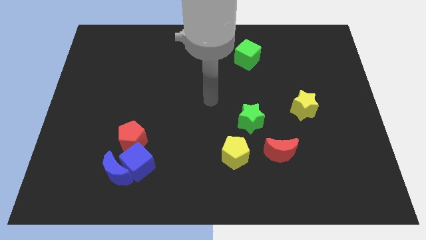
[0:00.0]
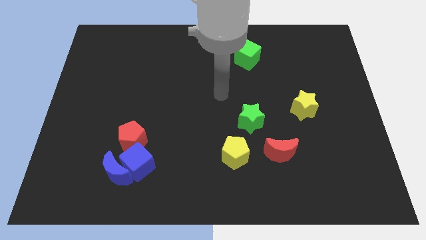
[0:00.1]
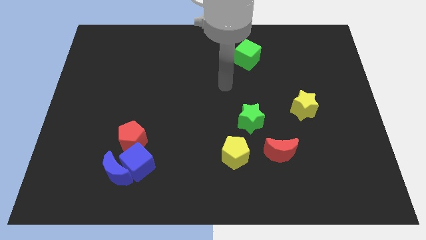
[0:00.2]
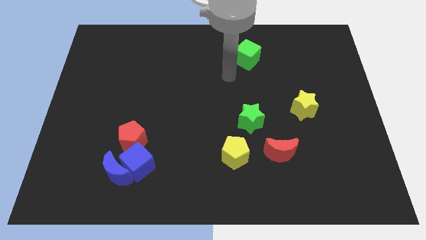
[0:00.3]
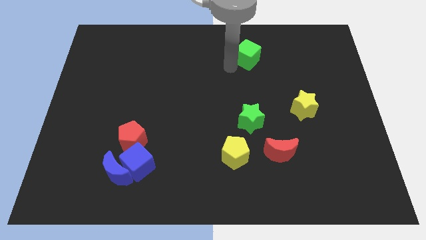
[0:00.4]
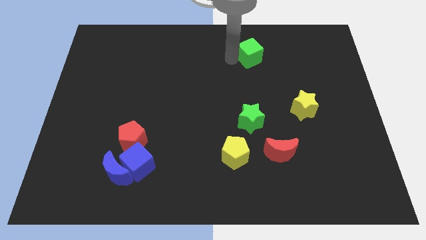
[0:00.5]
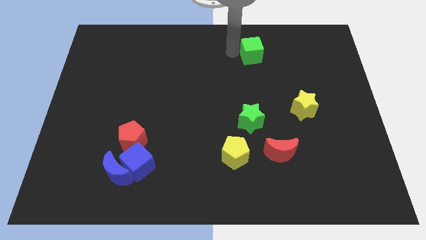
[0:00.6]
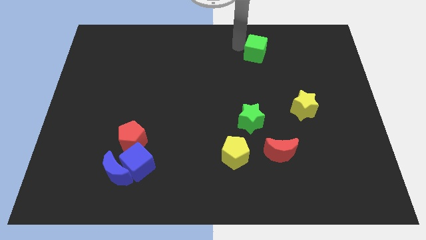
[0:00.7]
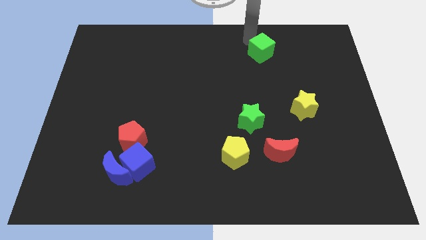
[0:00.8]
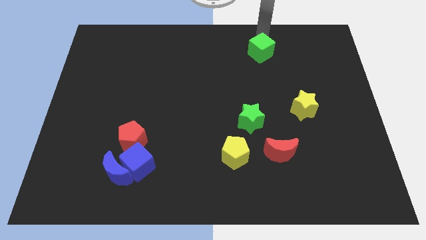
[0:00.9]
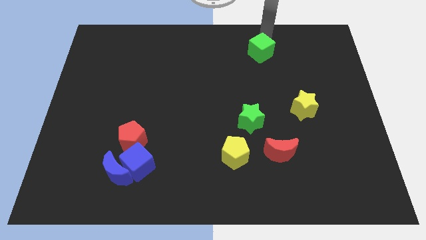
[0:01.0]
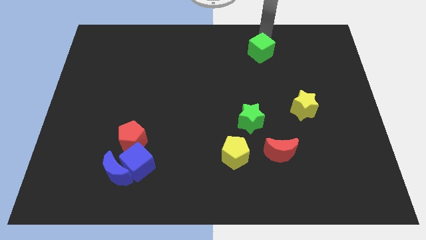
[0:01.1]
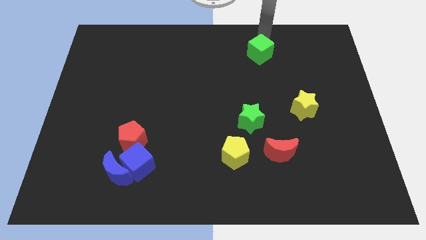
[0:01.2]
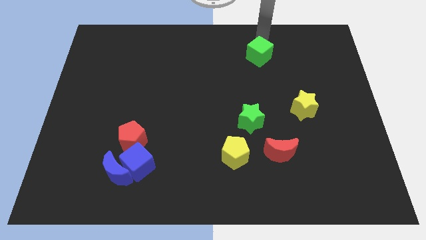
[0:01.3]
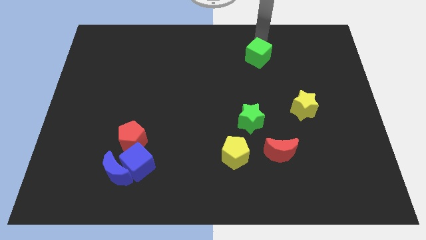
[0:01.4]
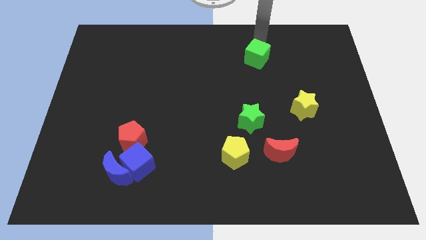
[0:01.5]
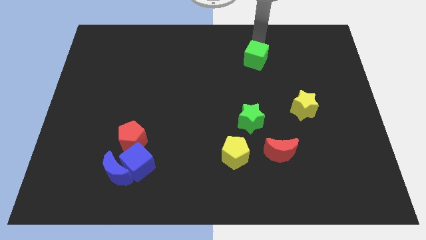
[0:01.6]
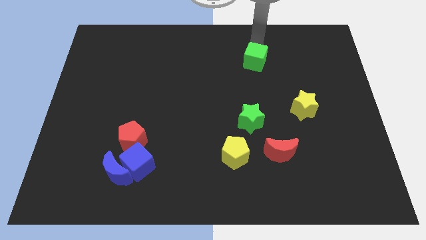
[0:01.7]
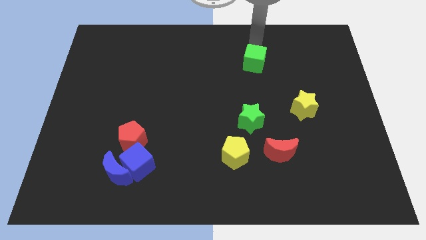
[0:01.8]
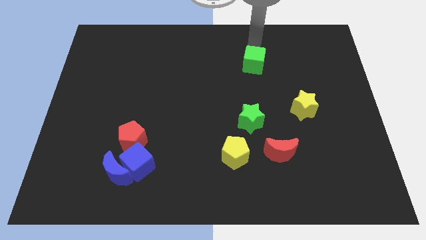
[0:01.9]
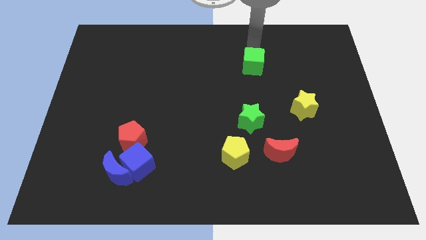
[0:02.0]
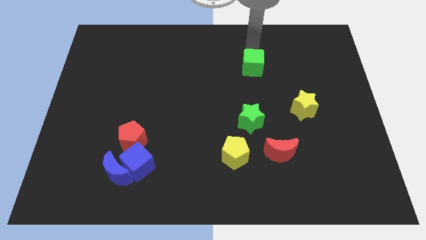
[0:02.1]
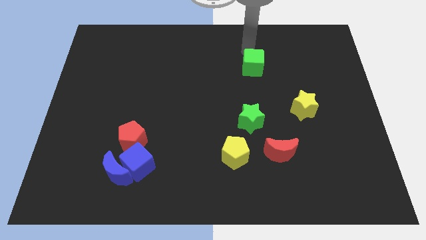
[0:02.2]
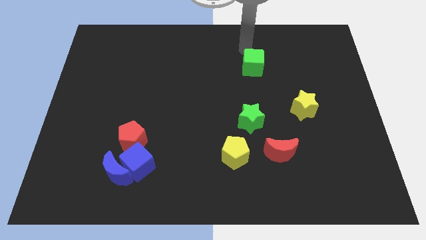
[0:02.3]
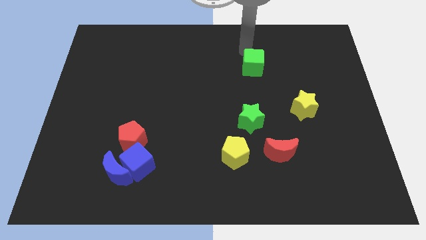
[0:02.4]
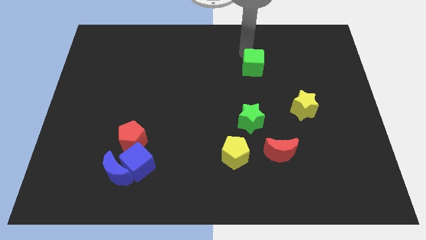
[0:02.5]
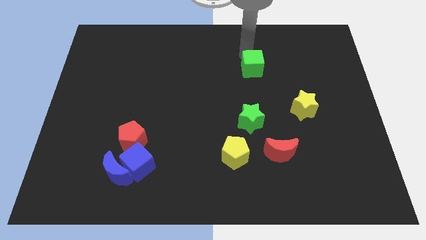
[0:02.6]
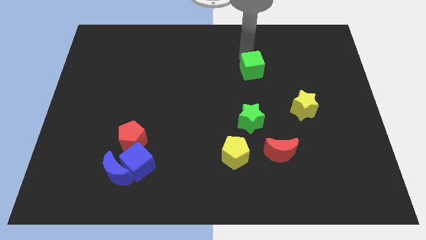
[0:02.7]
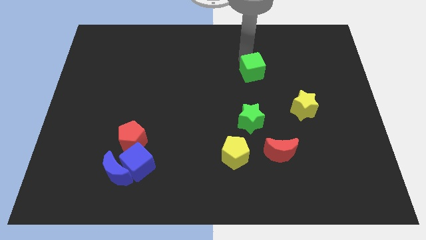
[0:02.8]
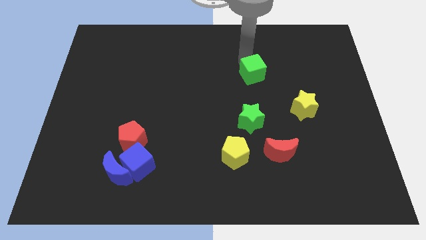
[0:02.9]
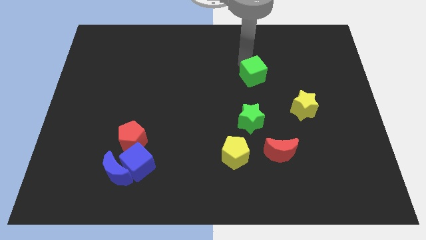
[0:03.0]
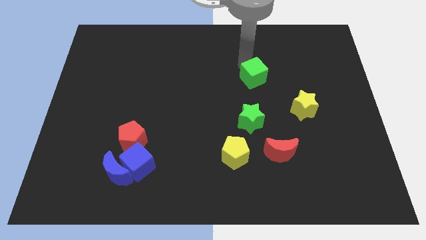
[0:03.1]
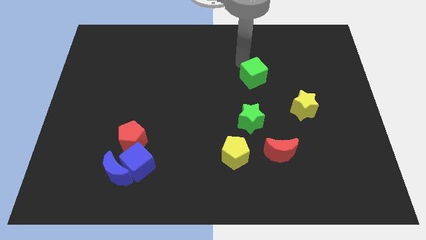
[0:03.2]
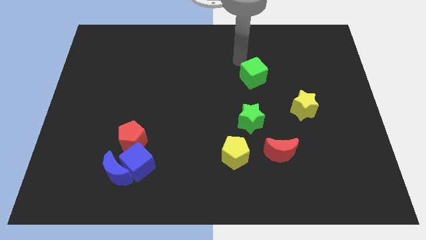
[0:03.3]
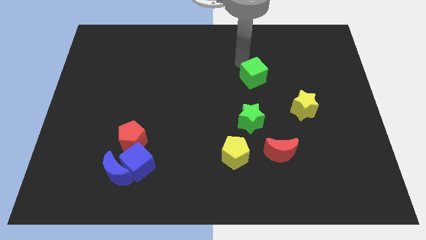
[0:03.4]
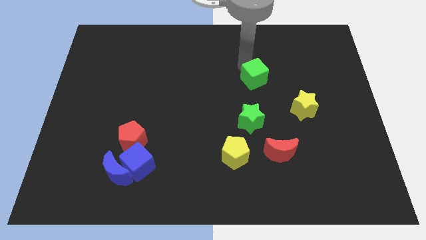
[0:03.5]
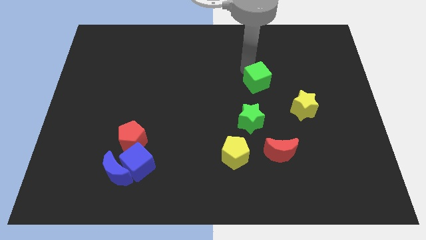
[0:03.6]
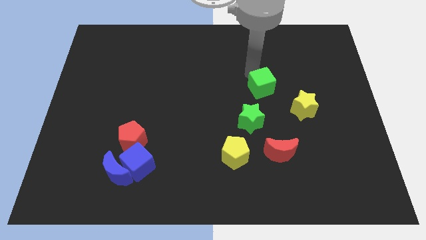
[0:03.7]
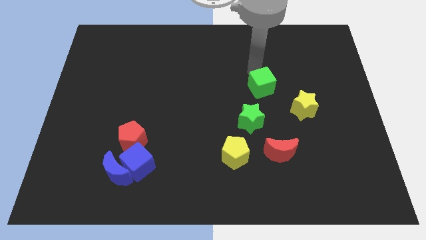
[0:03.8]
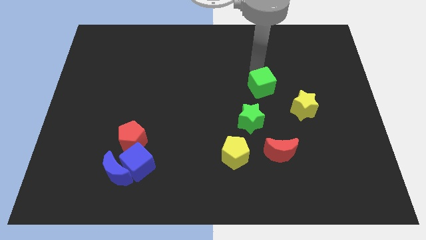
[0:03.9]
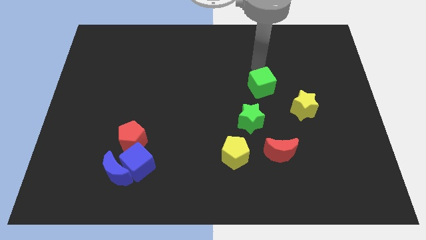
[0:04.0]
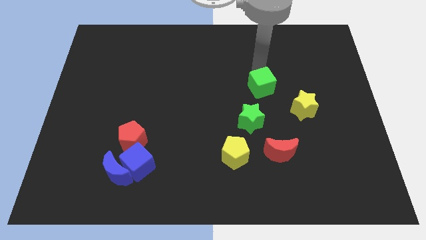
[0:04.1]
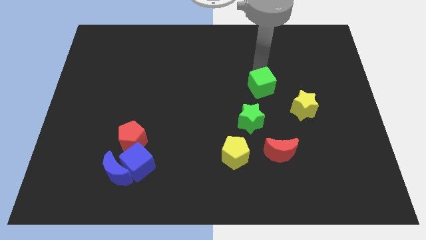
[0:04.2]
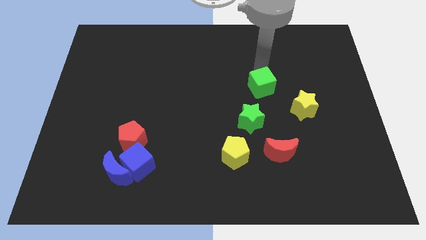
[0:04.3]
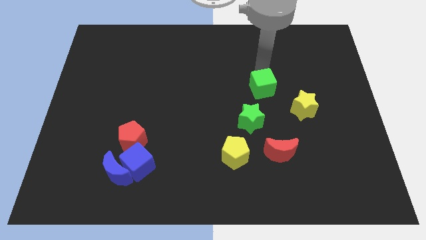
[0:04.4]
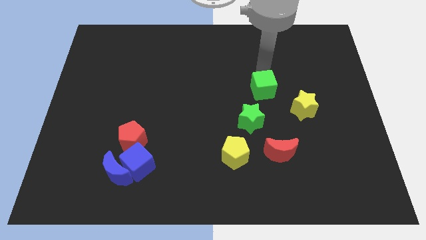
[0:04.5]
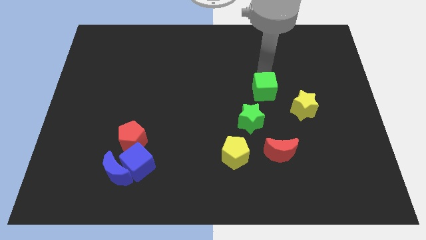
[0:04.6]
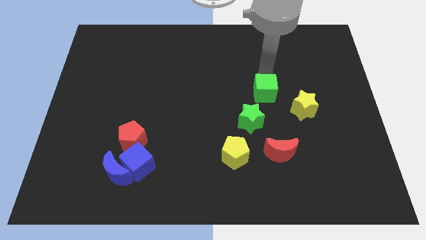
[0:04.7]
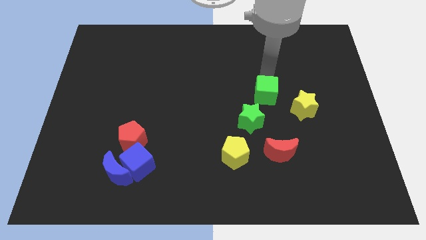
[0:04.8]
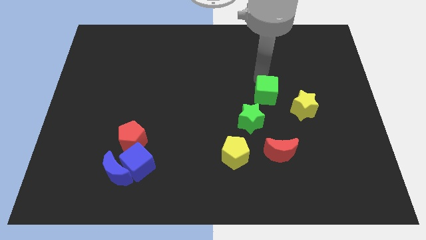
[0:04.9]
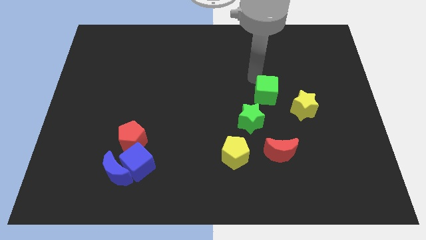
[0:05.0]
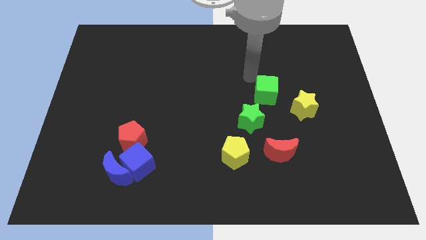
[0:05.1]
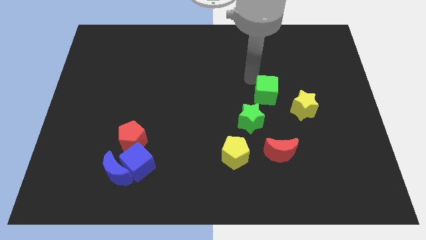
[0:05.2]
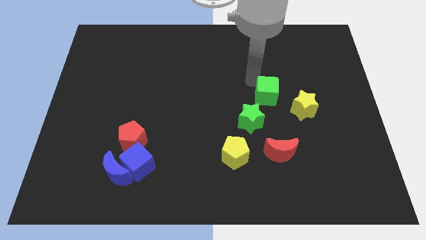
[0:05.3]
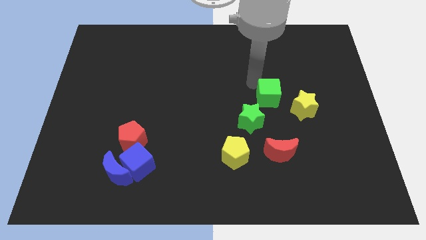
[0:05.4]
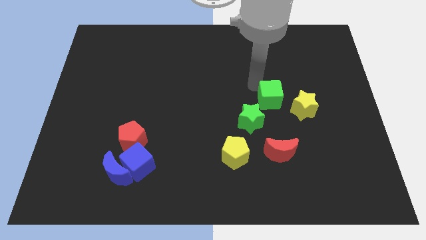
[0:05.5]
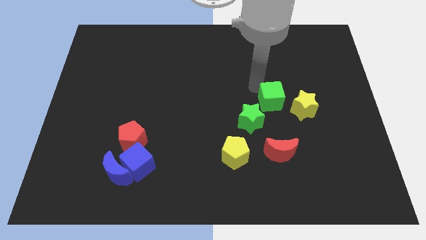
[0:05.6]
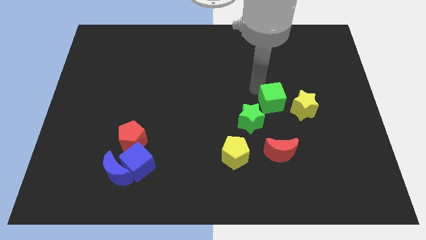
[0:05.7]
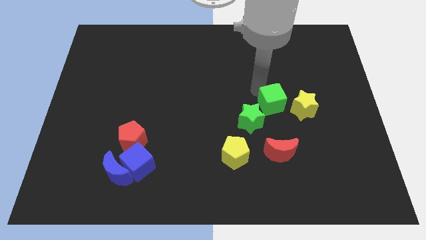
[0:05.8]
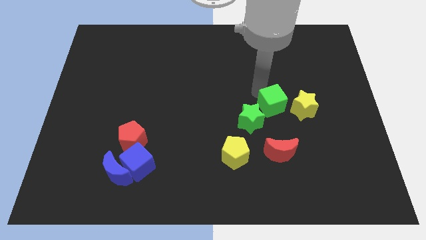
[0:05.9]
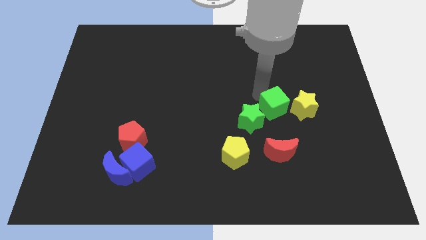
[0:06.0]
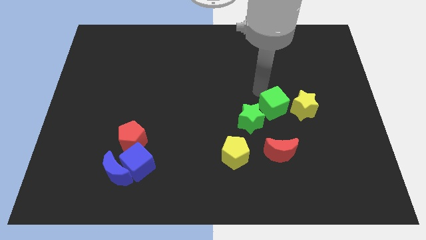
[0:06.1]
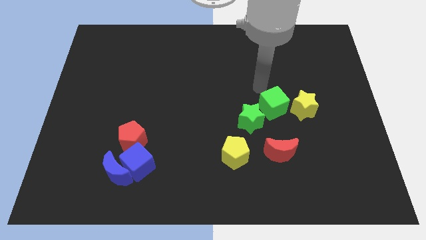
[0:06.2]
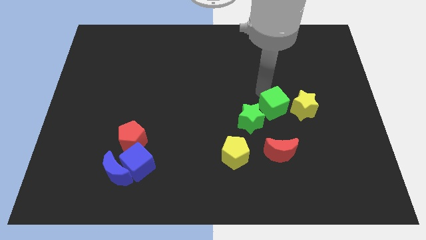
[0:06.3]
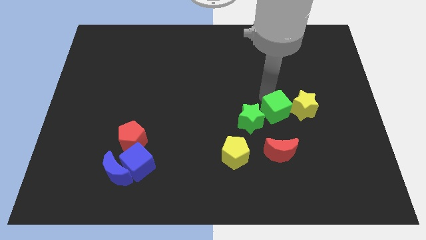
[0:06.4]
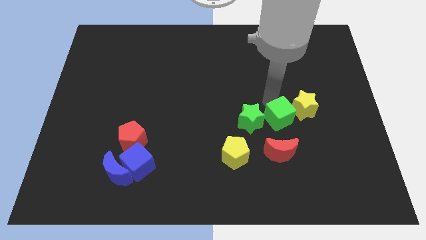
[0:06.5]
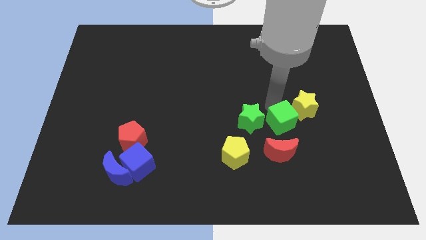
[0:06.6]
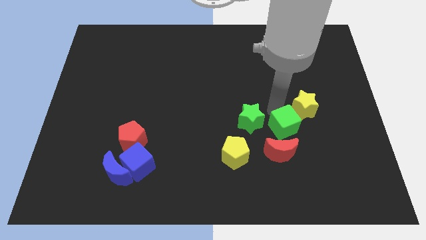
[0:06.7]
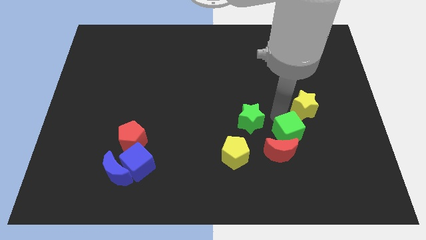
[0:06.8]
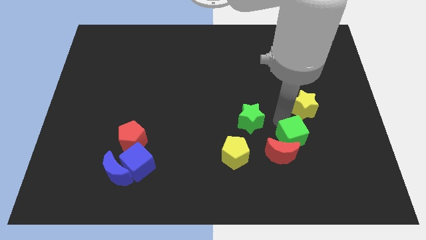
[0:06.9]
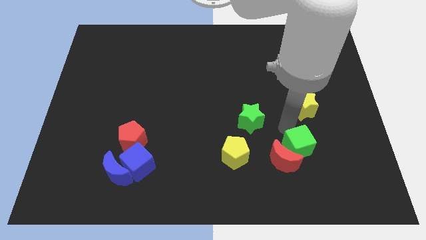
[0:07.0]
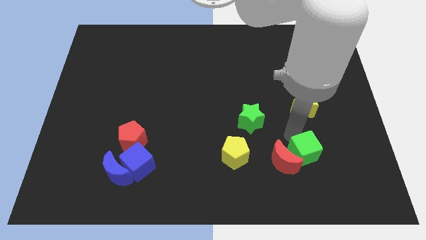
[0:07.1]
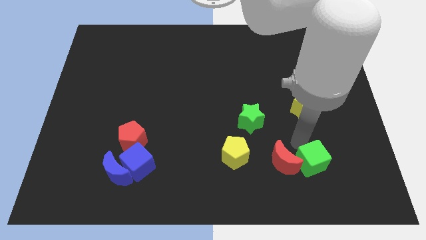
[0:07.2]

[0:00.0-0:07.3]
put the green cube to the bottom right side of the red moon
